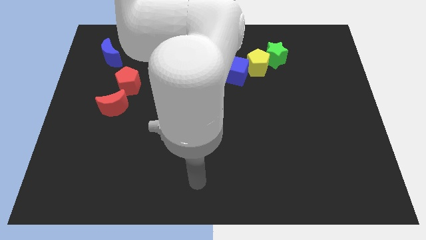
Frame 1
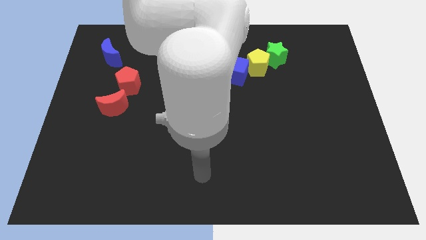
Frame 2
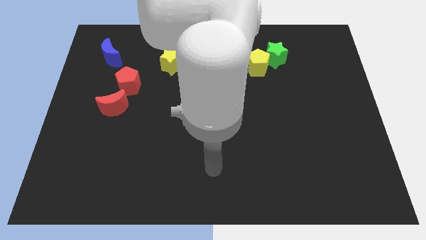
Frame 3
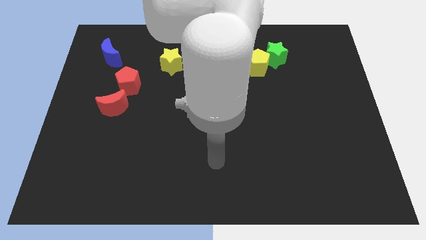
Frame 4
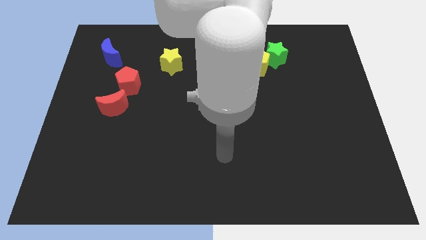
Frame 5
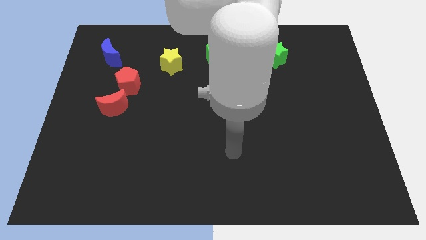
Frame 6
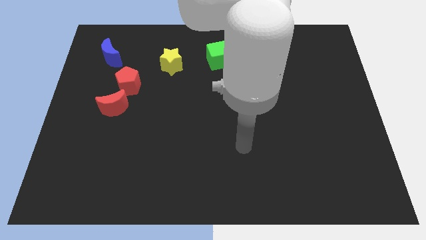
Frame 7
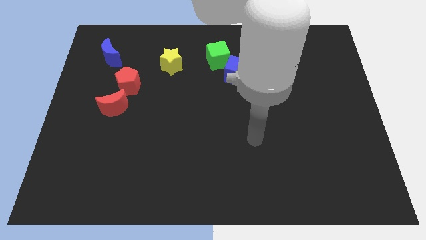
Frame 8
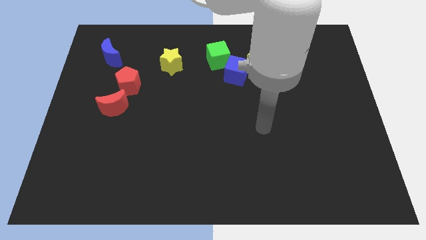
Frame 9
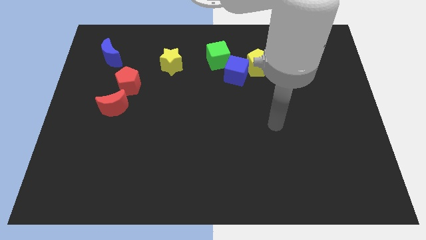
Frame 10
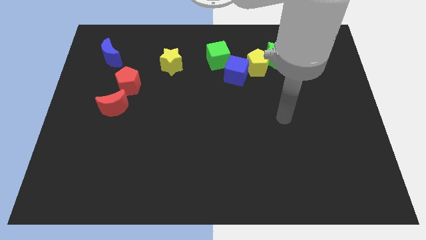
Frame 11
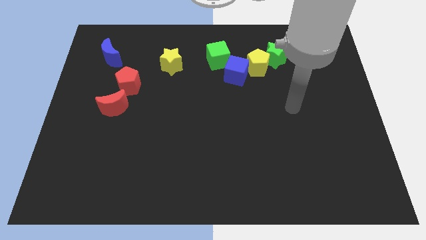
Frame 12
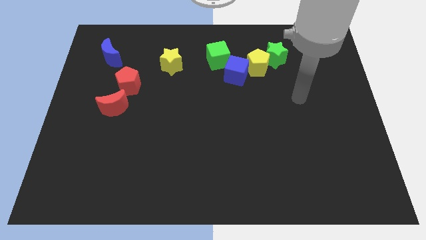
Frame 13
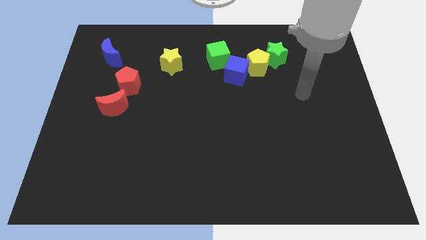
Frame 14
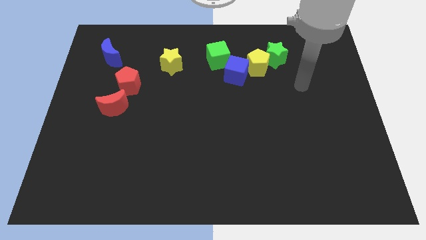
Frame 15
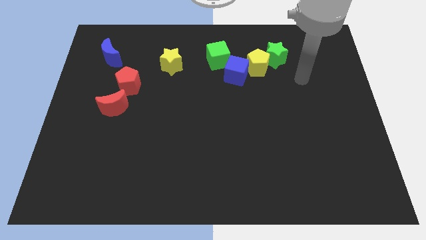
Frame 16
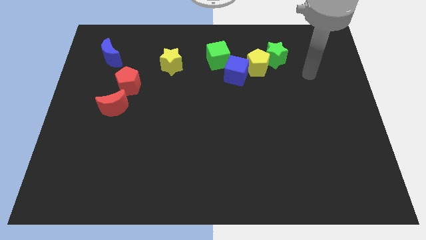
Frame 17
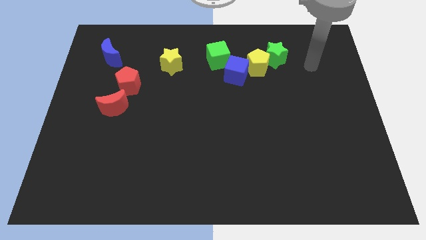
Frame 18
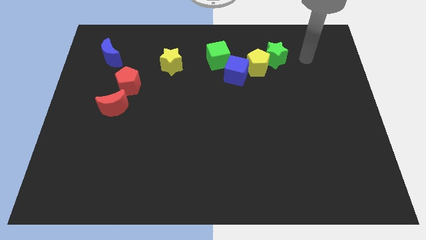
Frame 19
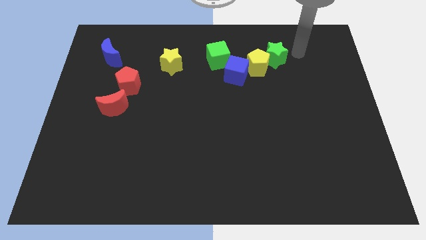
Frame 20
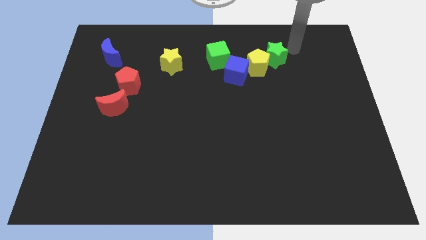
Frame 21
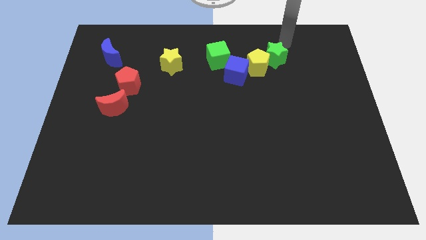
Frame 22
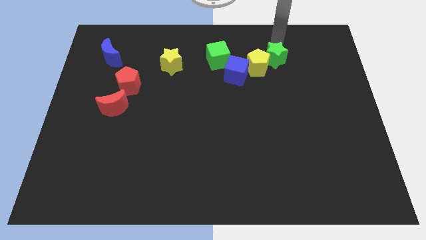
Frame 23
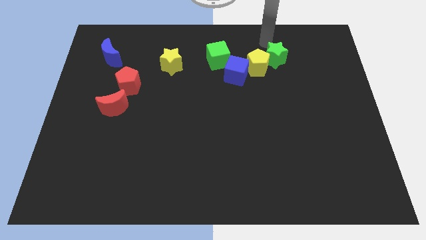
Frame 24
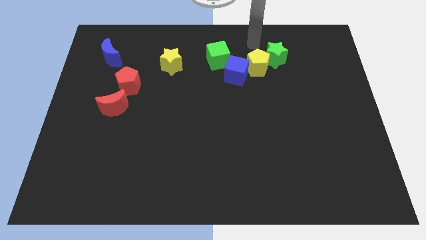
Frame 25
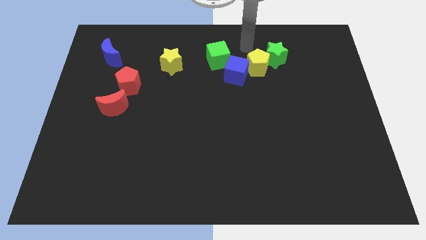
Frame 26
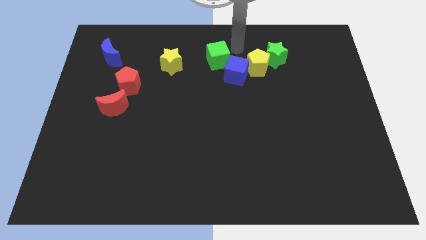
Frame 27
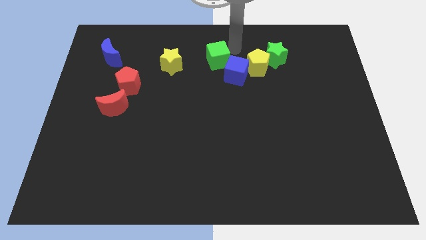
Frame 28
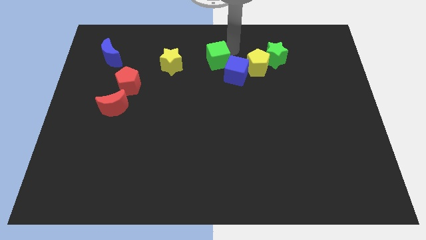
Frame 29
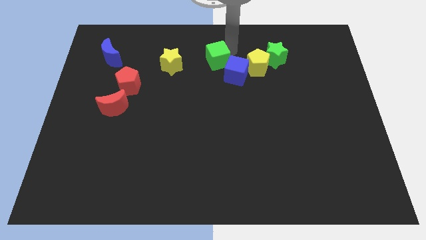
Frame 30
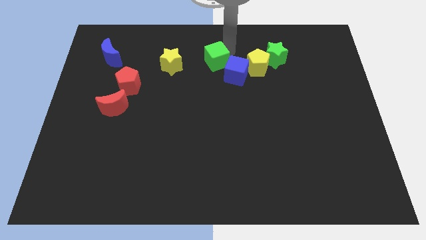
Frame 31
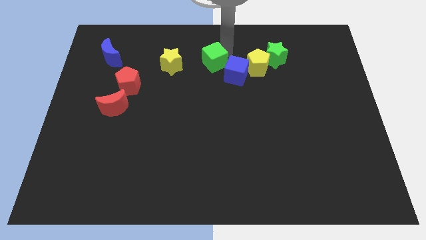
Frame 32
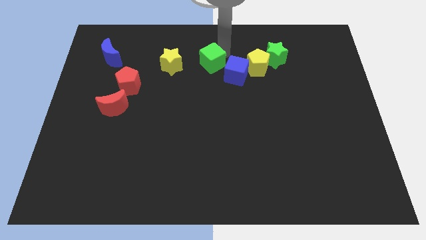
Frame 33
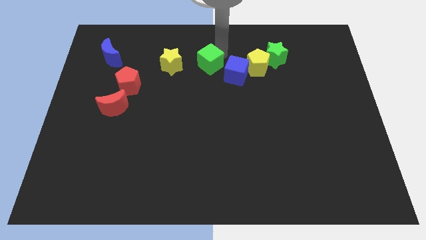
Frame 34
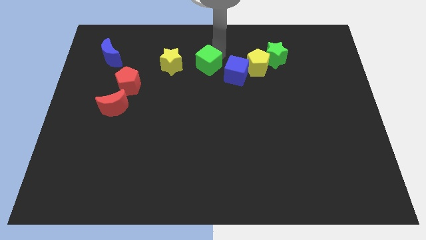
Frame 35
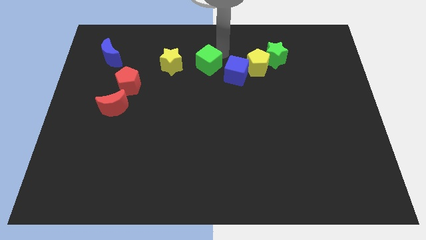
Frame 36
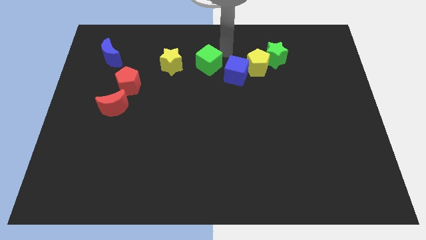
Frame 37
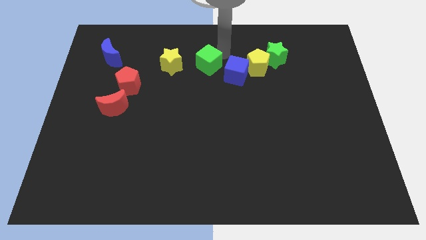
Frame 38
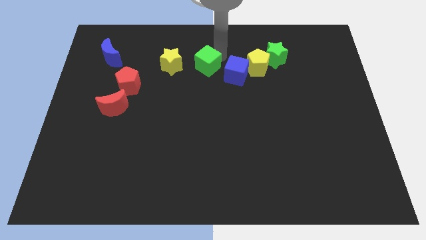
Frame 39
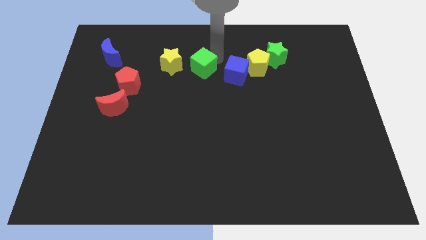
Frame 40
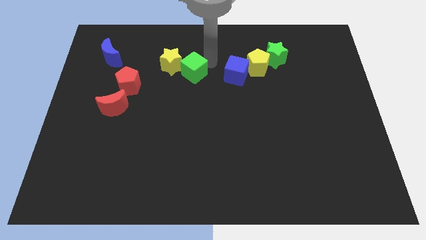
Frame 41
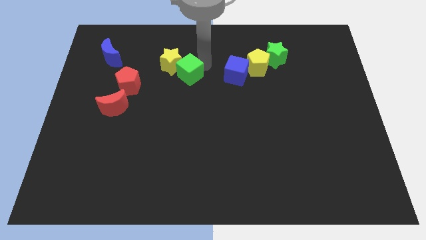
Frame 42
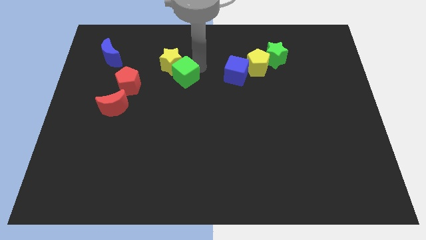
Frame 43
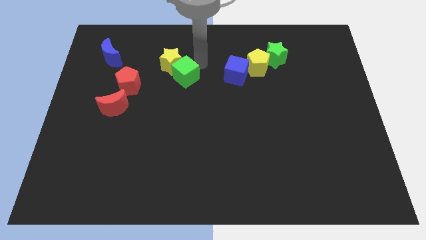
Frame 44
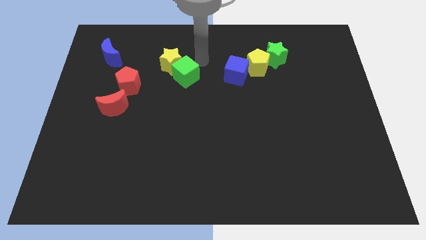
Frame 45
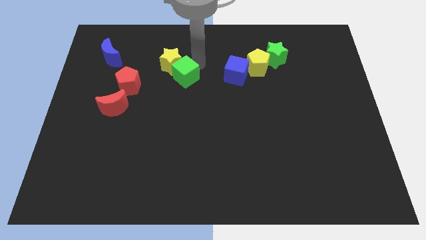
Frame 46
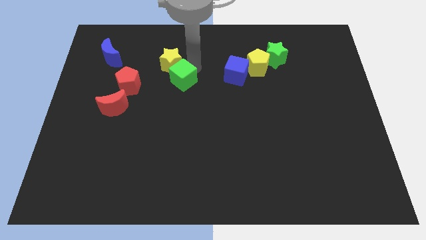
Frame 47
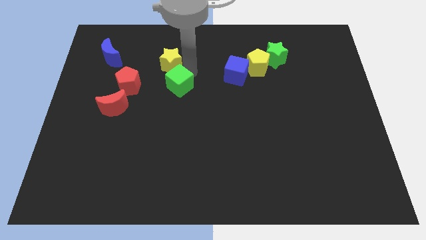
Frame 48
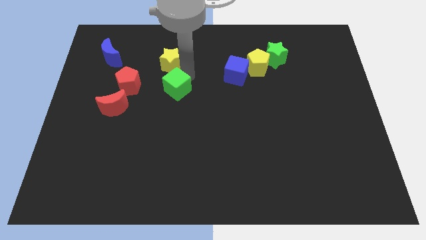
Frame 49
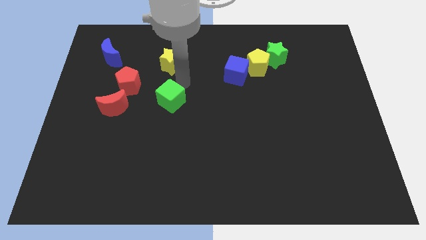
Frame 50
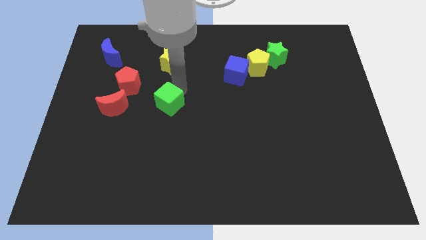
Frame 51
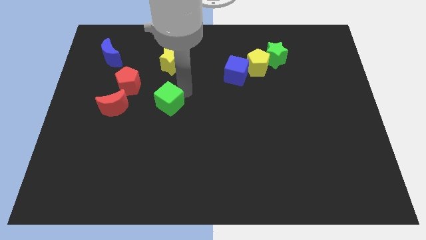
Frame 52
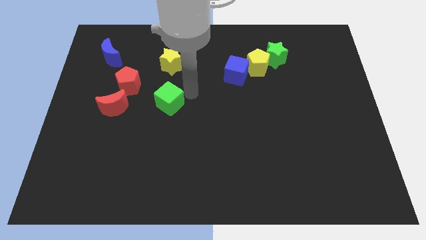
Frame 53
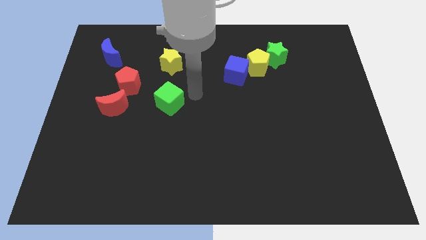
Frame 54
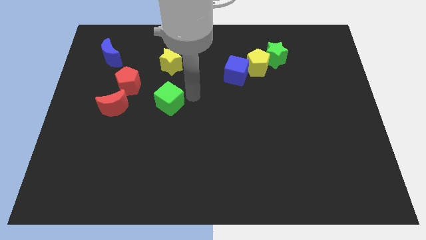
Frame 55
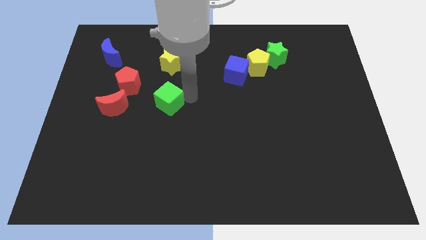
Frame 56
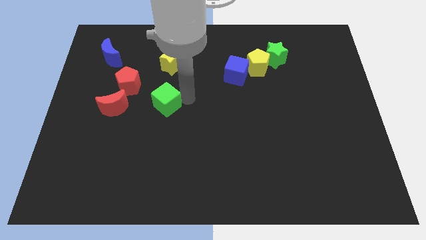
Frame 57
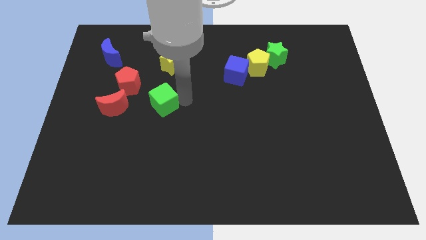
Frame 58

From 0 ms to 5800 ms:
push the green cube down and to the left diagonally

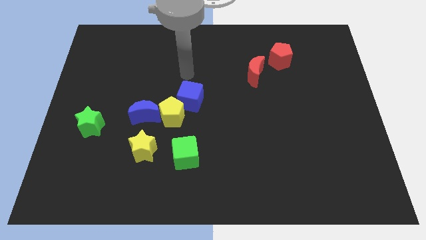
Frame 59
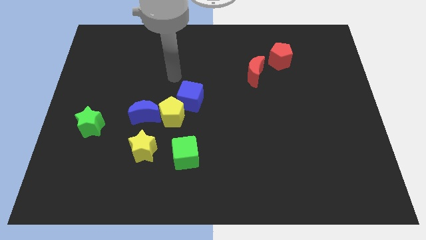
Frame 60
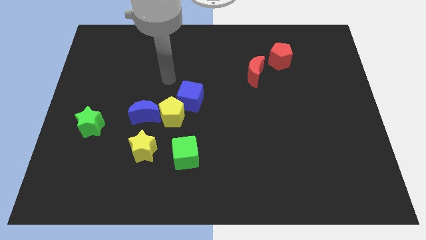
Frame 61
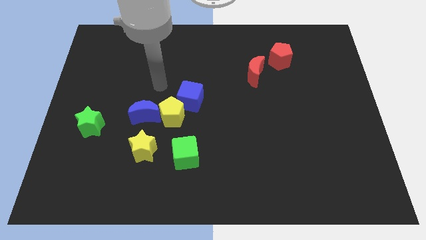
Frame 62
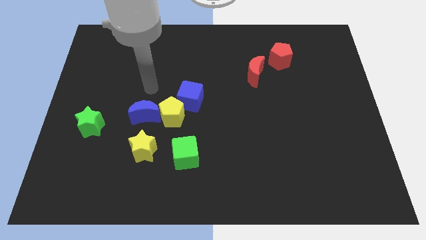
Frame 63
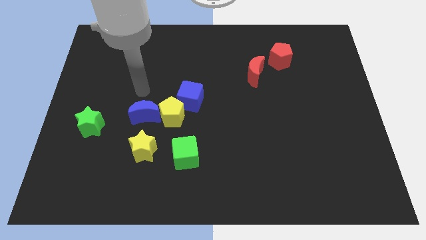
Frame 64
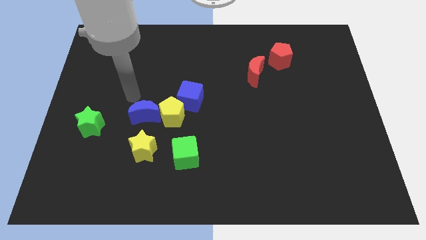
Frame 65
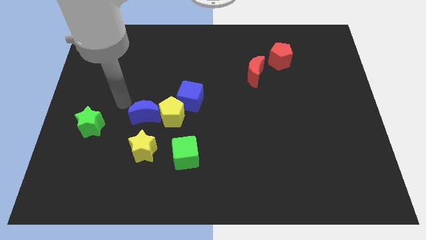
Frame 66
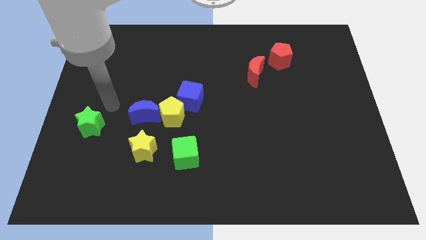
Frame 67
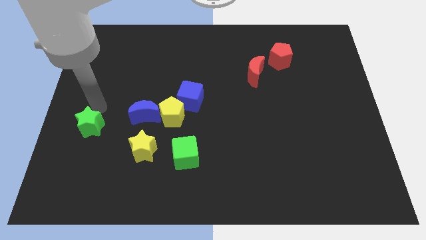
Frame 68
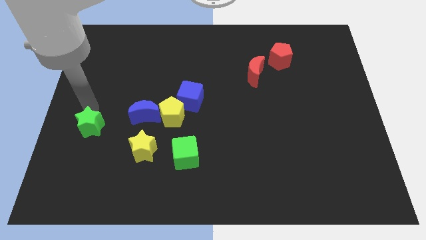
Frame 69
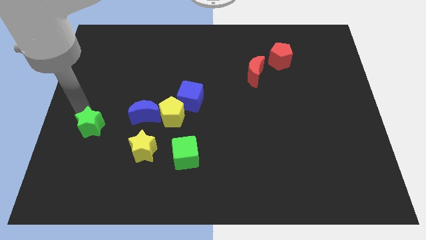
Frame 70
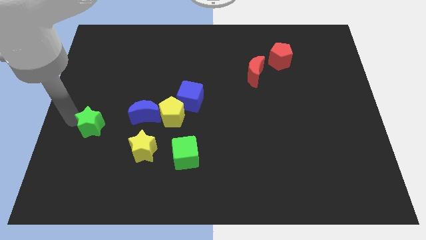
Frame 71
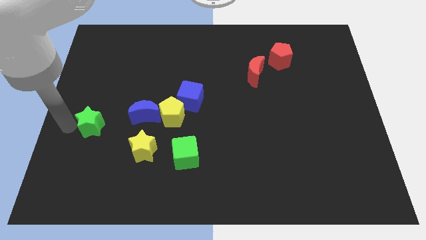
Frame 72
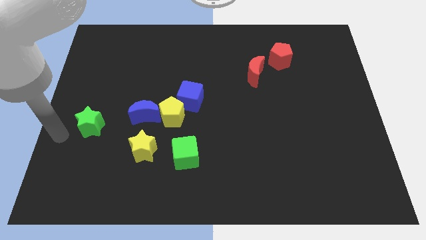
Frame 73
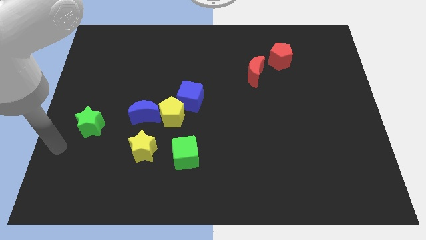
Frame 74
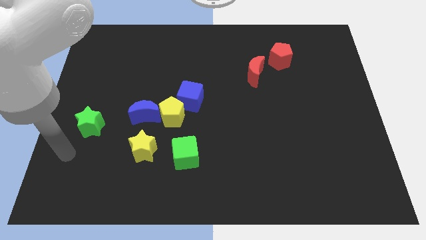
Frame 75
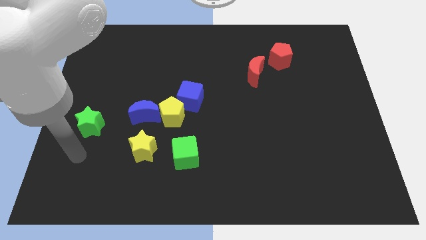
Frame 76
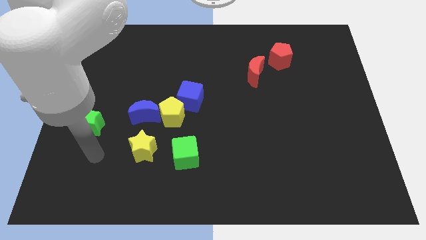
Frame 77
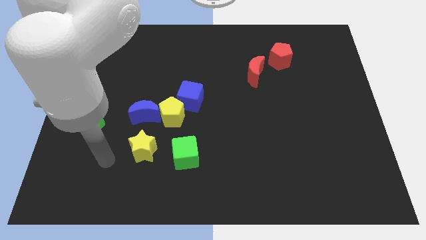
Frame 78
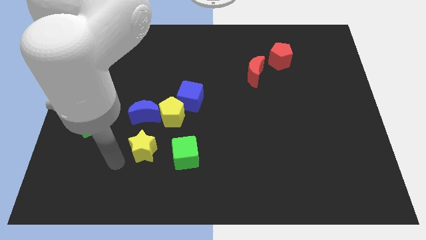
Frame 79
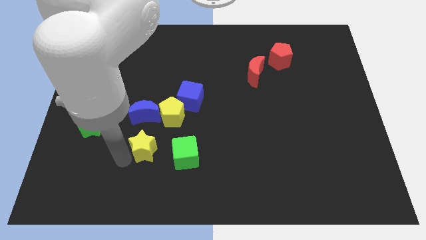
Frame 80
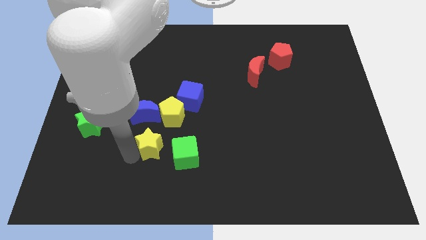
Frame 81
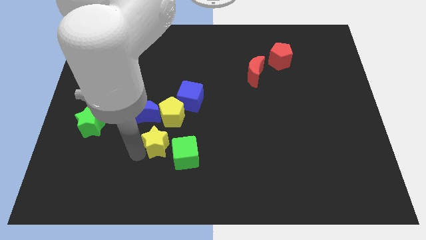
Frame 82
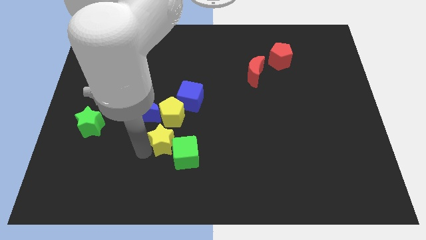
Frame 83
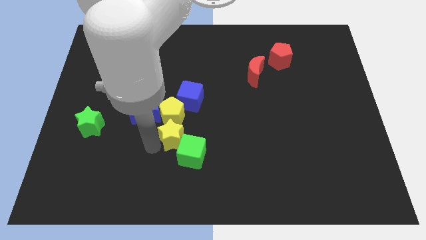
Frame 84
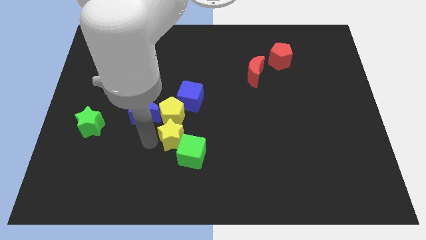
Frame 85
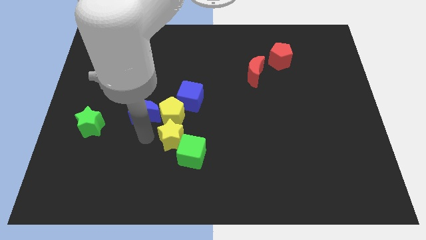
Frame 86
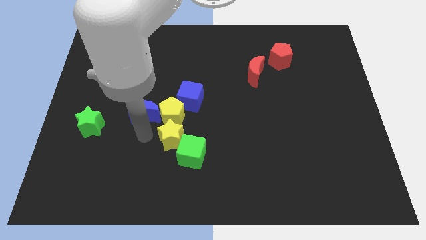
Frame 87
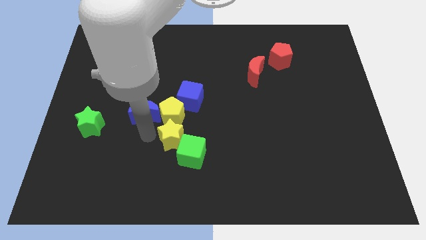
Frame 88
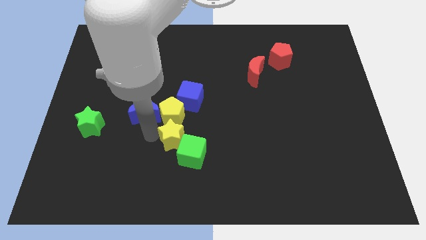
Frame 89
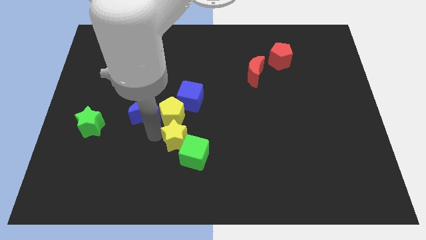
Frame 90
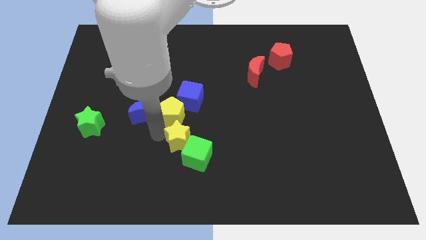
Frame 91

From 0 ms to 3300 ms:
slightly move the yellow star to the right
